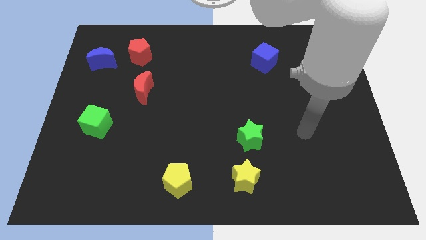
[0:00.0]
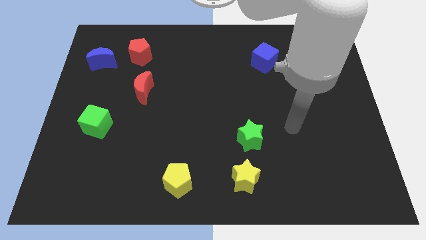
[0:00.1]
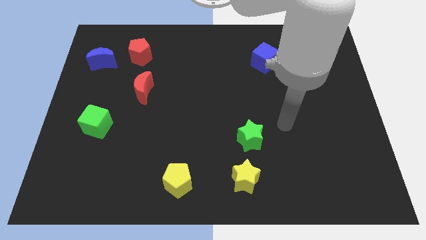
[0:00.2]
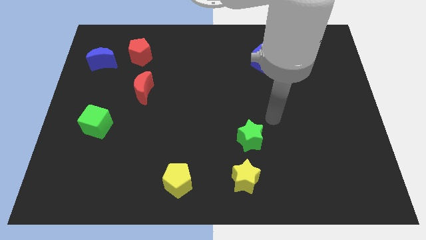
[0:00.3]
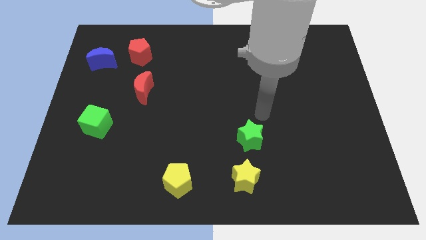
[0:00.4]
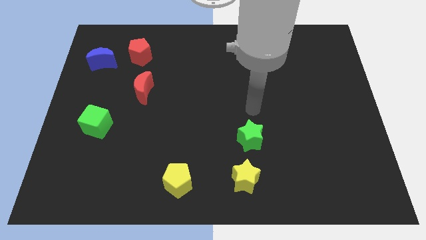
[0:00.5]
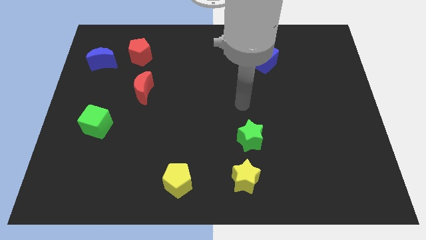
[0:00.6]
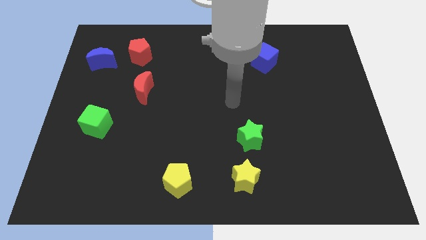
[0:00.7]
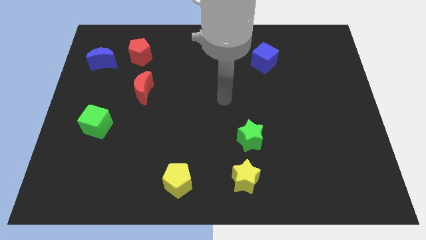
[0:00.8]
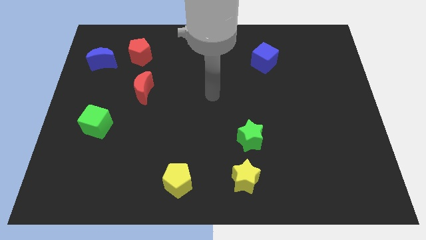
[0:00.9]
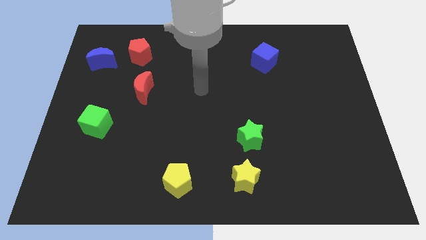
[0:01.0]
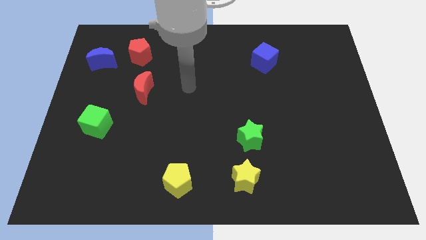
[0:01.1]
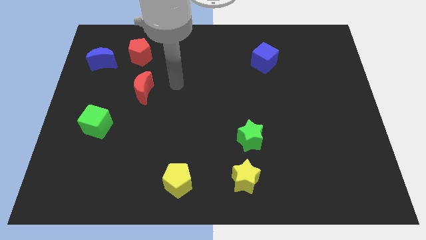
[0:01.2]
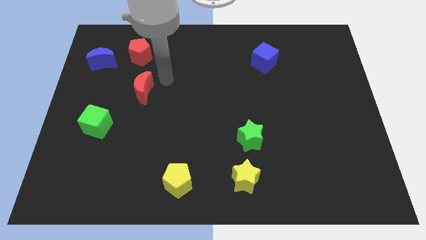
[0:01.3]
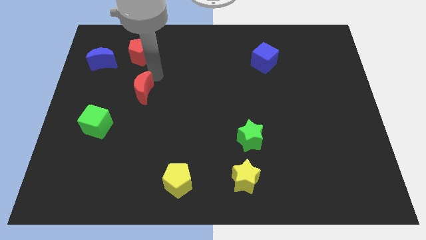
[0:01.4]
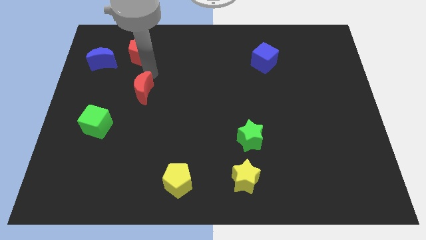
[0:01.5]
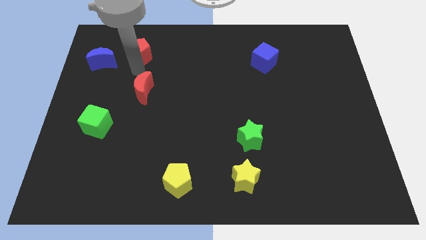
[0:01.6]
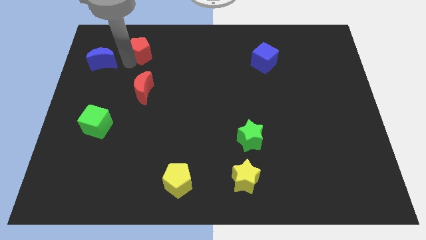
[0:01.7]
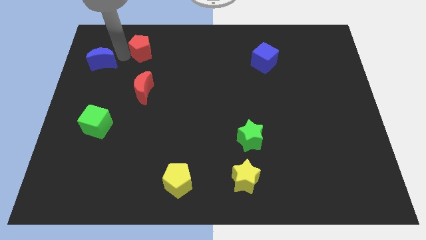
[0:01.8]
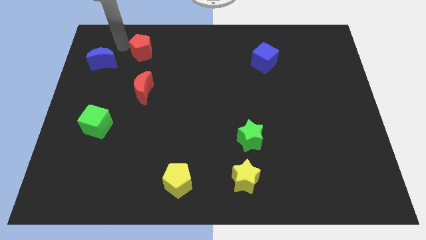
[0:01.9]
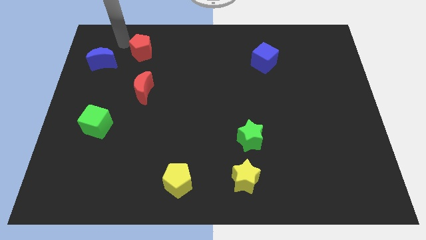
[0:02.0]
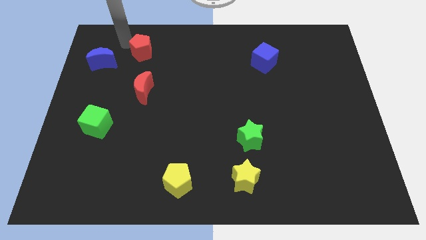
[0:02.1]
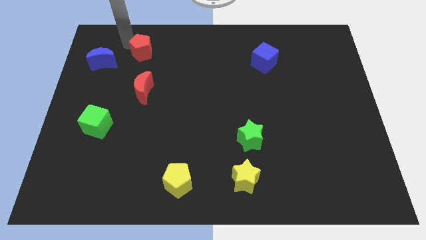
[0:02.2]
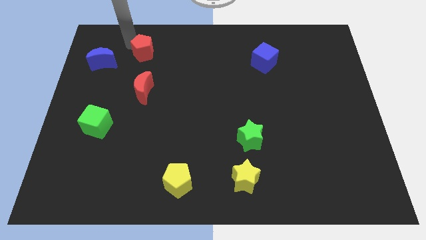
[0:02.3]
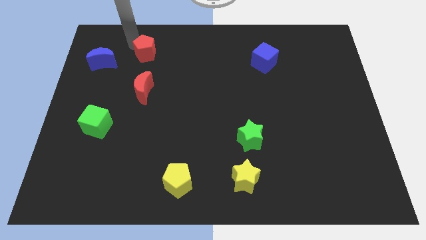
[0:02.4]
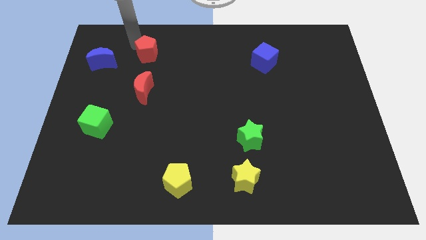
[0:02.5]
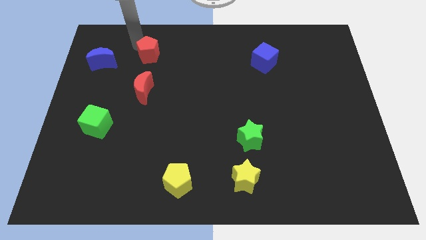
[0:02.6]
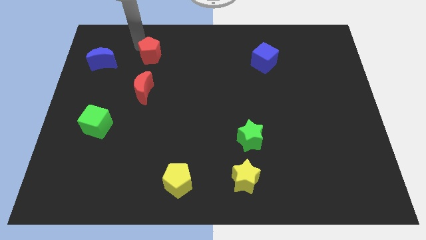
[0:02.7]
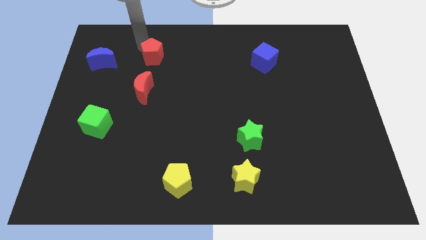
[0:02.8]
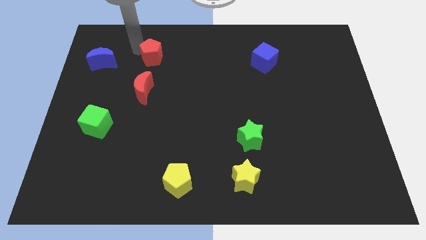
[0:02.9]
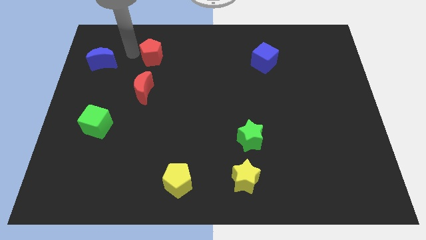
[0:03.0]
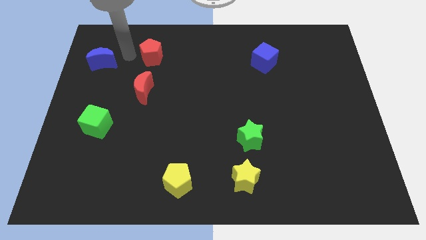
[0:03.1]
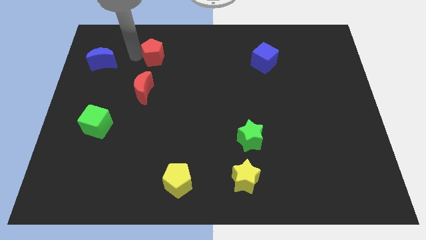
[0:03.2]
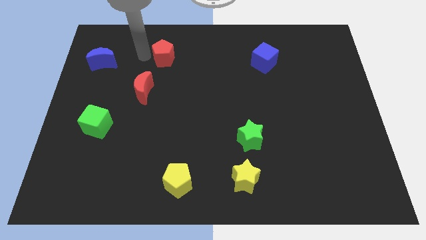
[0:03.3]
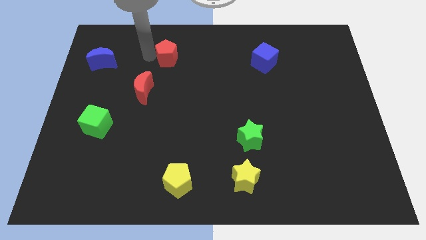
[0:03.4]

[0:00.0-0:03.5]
push the red pentagon slightly right

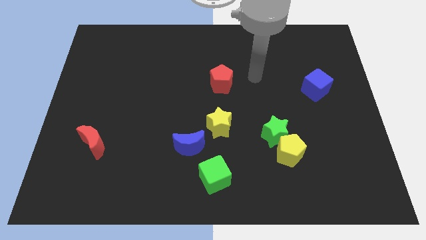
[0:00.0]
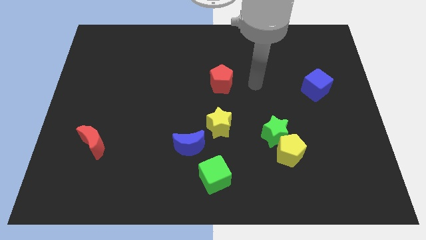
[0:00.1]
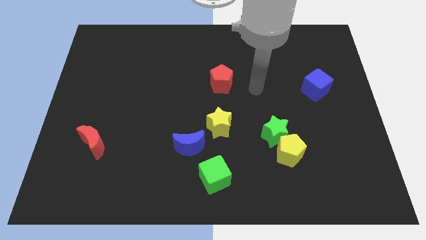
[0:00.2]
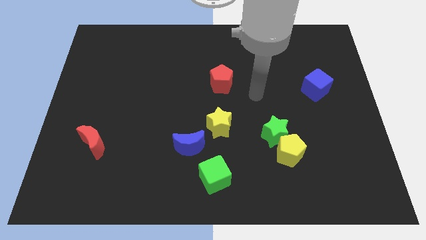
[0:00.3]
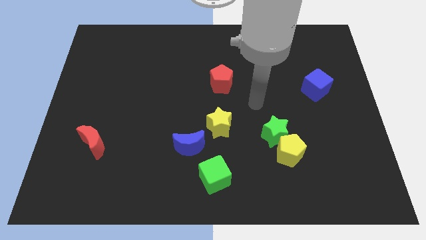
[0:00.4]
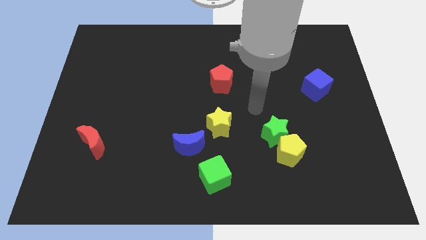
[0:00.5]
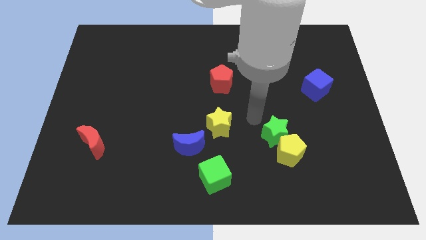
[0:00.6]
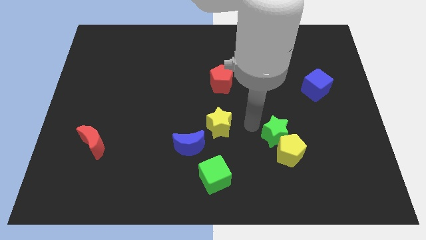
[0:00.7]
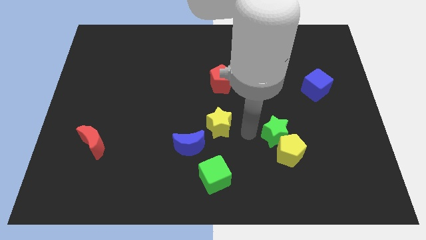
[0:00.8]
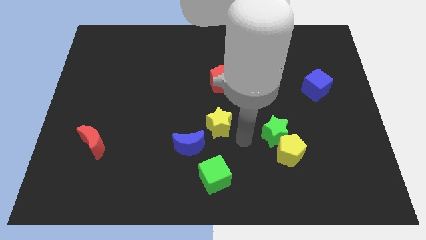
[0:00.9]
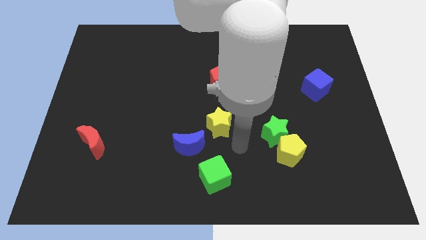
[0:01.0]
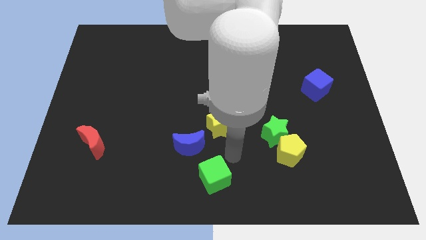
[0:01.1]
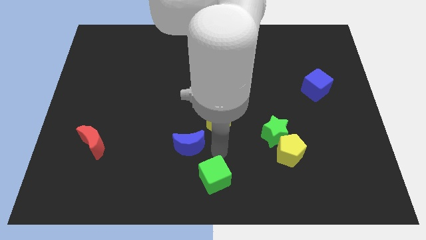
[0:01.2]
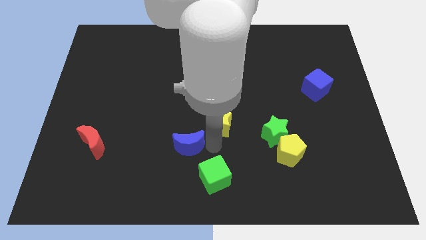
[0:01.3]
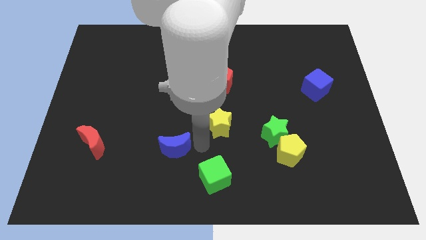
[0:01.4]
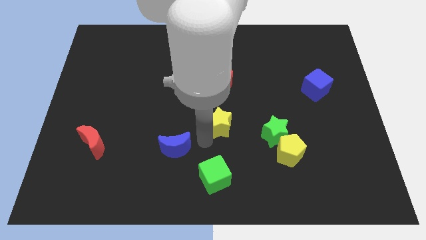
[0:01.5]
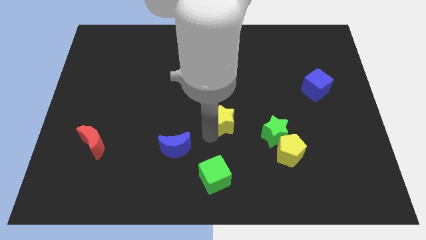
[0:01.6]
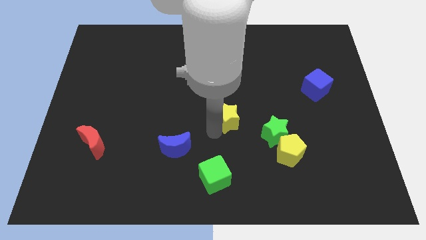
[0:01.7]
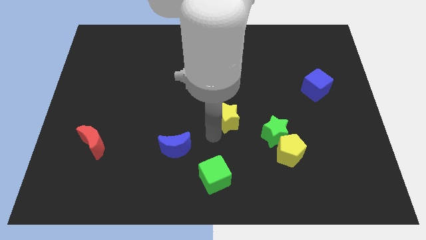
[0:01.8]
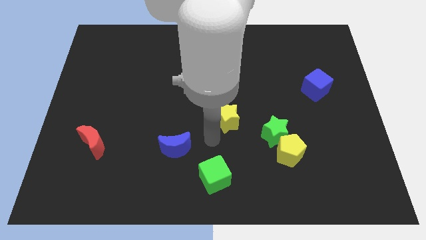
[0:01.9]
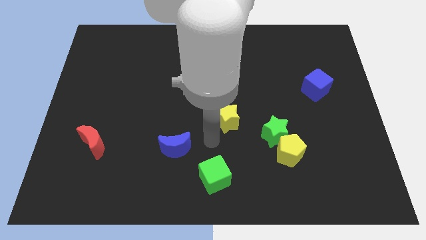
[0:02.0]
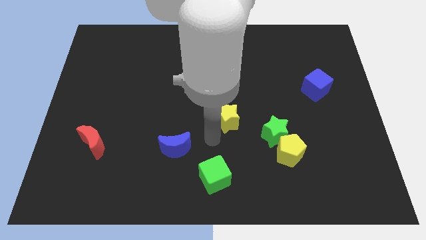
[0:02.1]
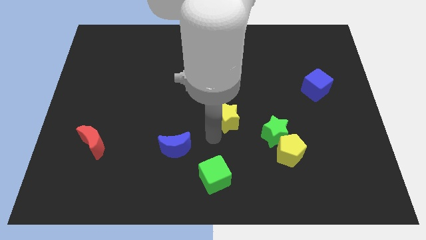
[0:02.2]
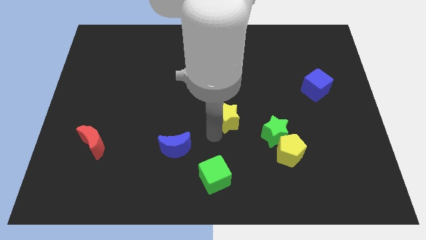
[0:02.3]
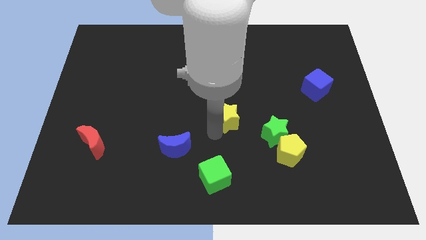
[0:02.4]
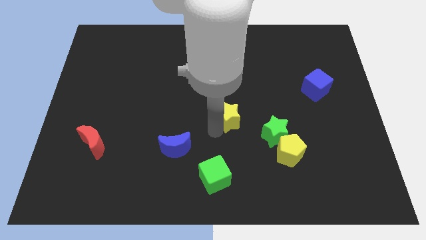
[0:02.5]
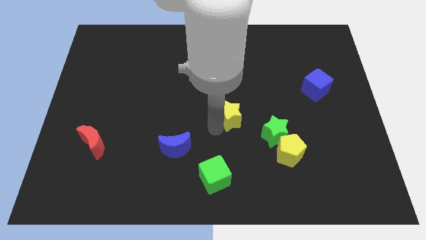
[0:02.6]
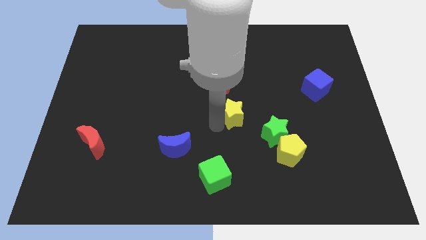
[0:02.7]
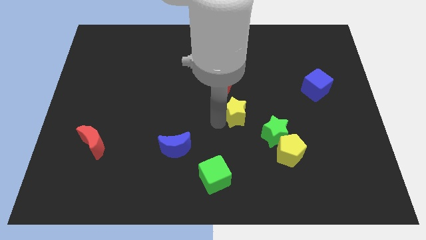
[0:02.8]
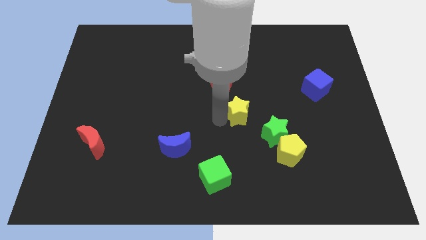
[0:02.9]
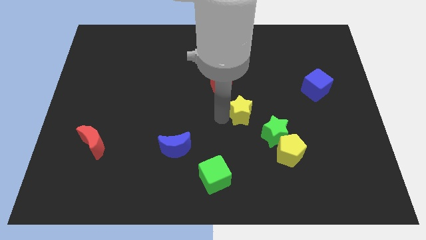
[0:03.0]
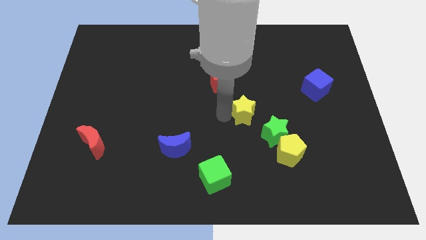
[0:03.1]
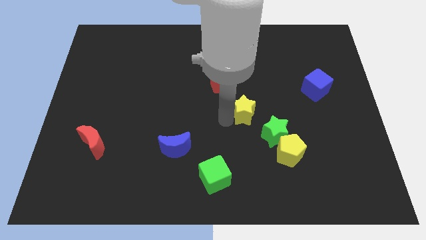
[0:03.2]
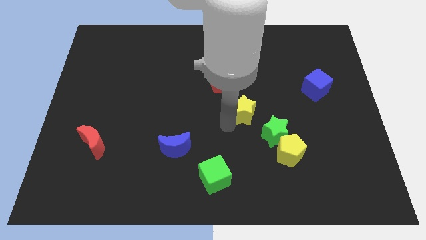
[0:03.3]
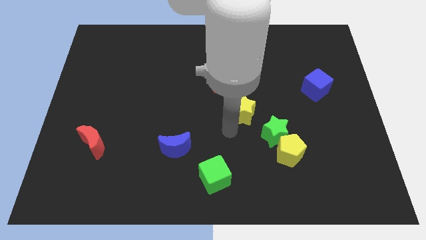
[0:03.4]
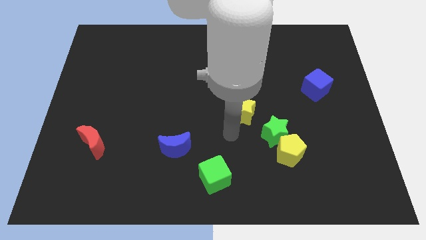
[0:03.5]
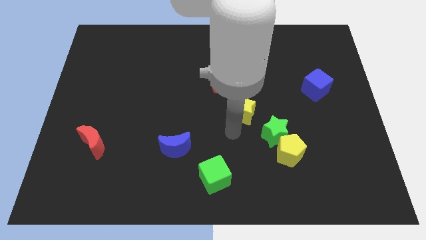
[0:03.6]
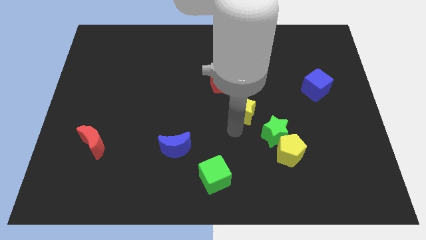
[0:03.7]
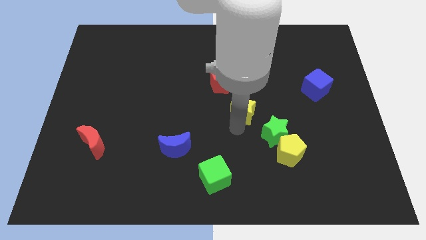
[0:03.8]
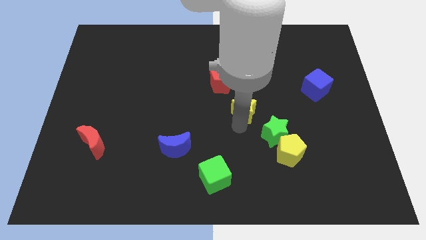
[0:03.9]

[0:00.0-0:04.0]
push the yellow star diagonally upwards and to the right a little

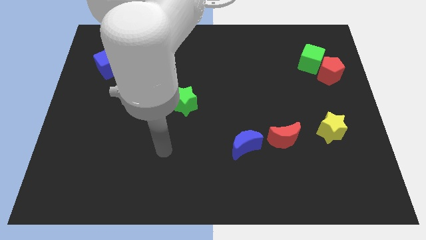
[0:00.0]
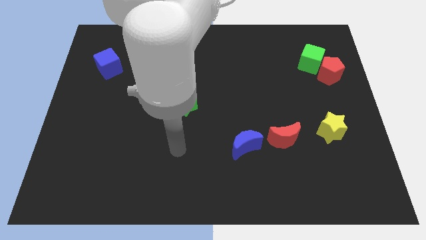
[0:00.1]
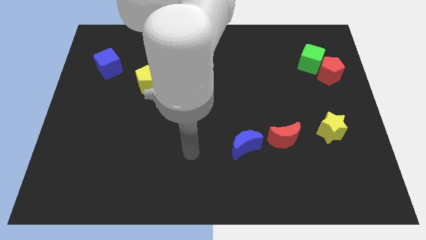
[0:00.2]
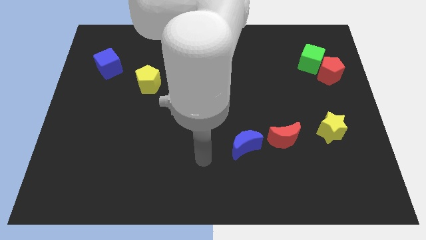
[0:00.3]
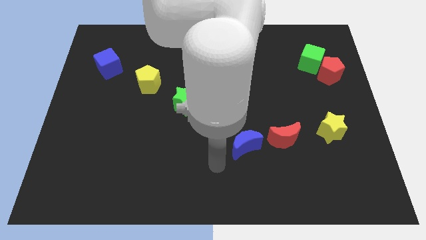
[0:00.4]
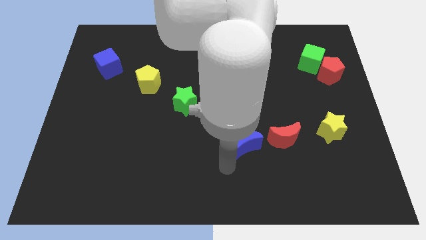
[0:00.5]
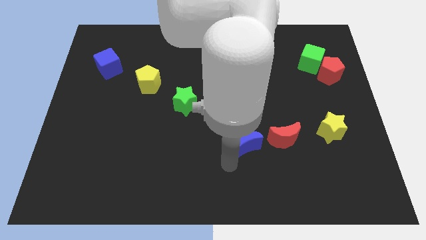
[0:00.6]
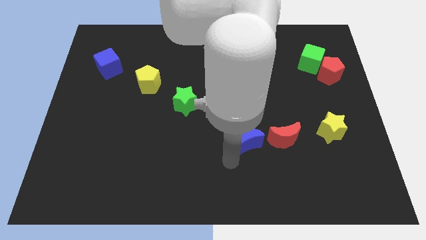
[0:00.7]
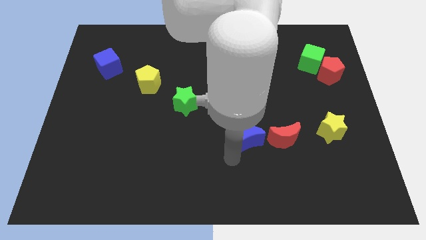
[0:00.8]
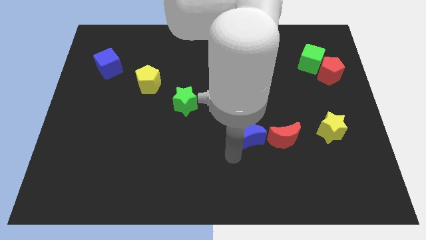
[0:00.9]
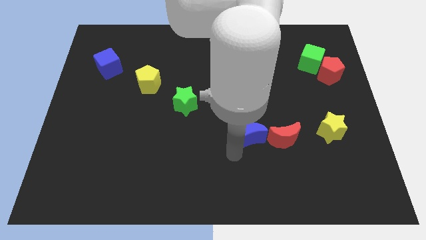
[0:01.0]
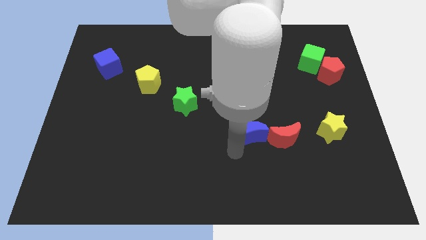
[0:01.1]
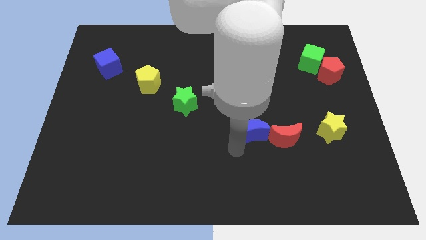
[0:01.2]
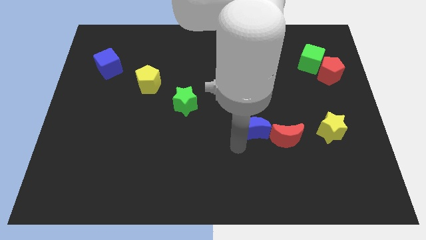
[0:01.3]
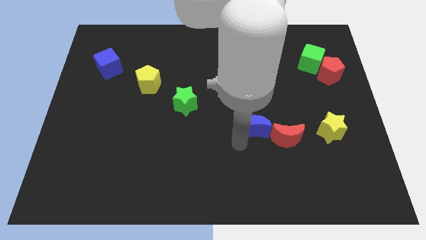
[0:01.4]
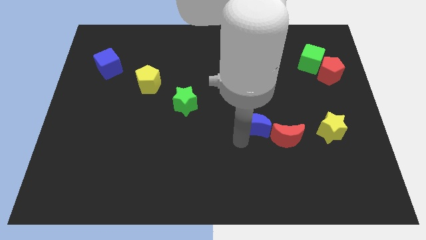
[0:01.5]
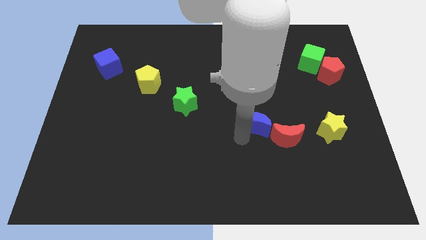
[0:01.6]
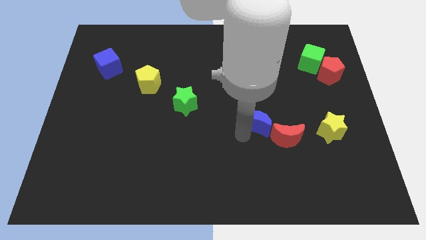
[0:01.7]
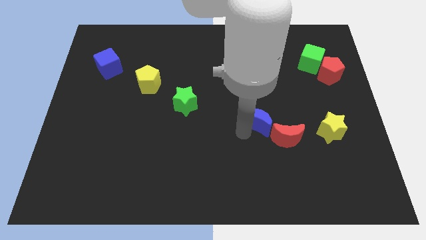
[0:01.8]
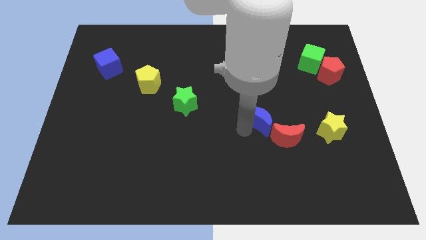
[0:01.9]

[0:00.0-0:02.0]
push the blue moon a little upwards and then right
